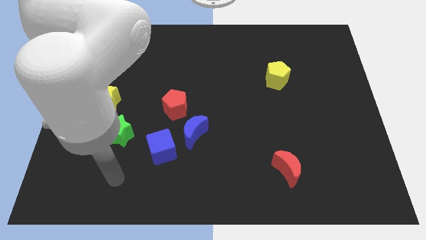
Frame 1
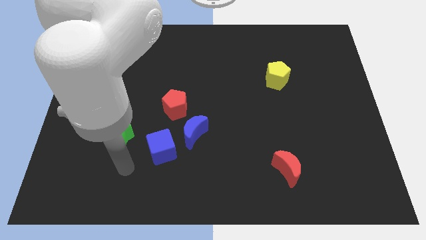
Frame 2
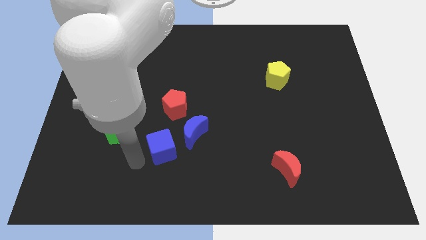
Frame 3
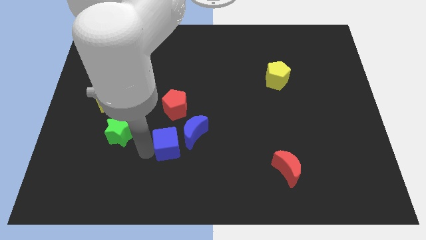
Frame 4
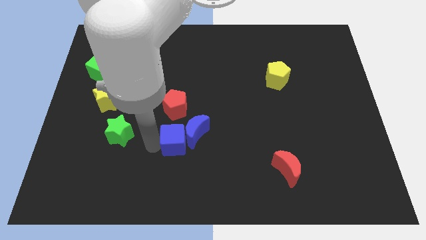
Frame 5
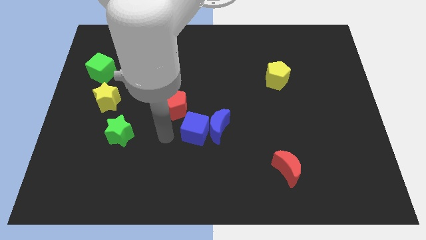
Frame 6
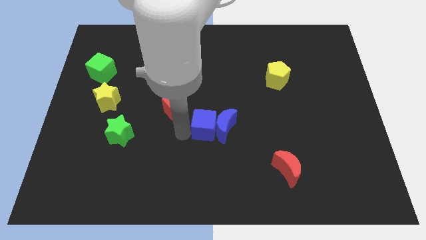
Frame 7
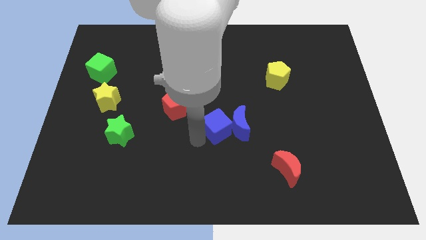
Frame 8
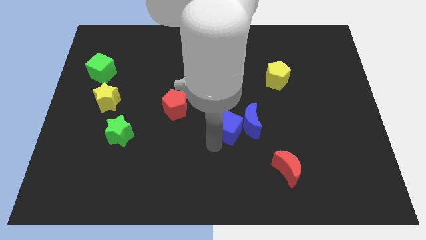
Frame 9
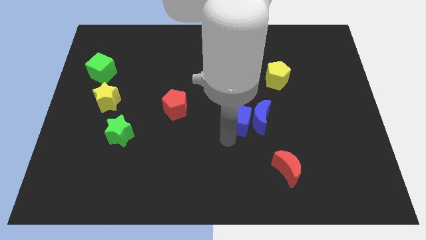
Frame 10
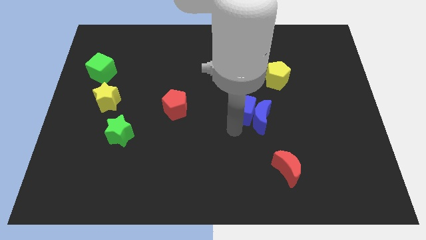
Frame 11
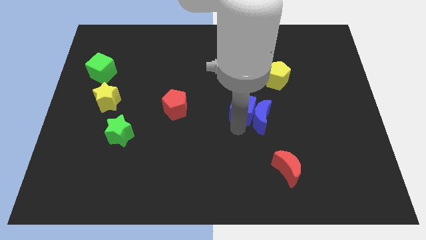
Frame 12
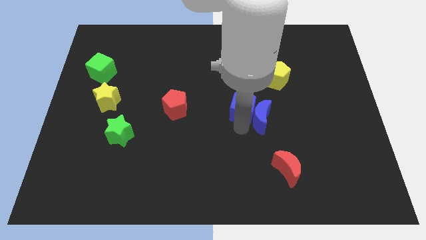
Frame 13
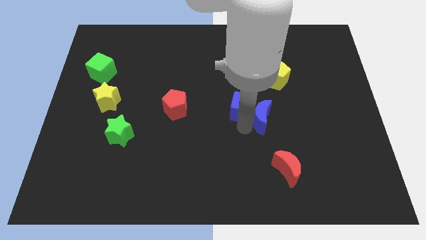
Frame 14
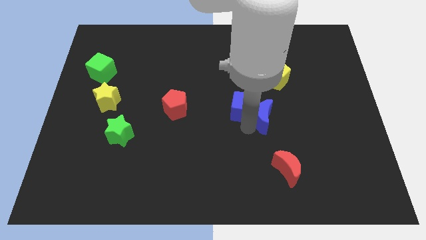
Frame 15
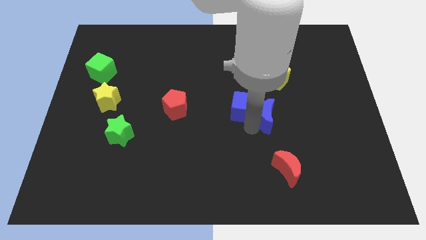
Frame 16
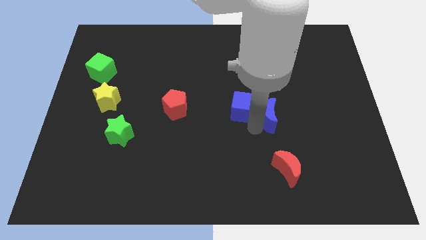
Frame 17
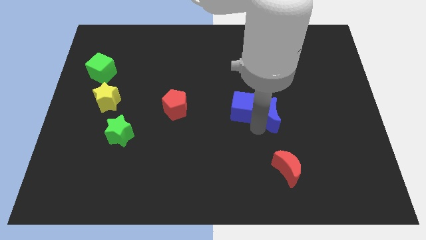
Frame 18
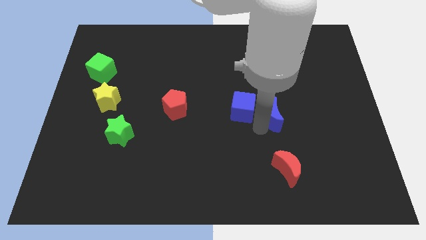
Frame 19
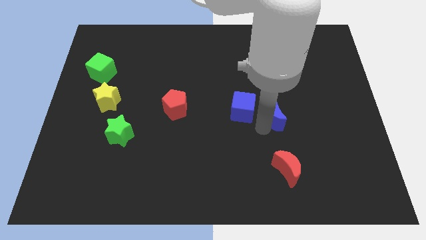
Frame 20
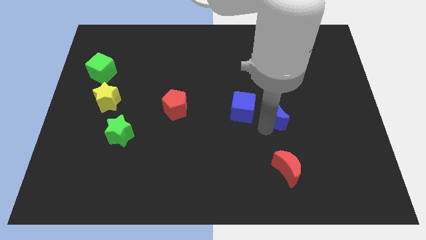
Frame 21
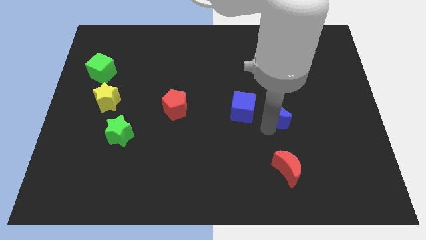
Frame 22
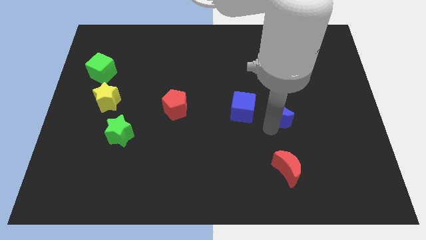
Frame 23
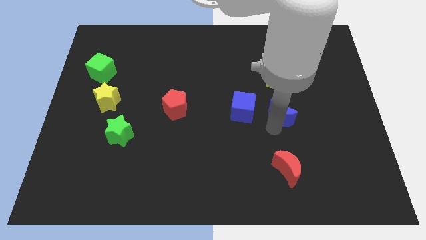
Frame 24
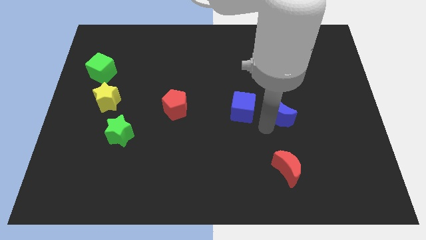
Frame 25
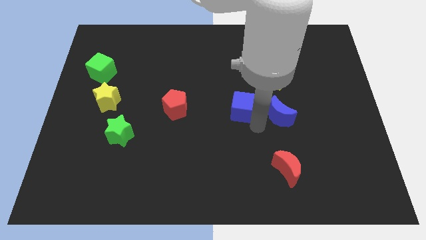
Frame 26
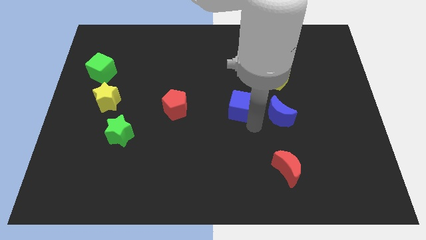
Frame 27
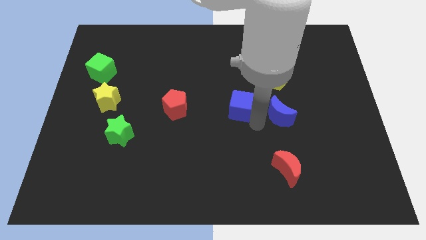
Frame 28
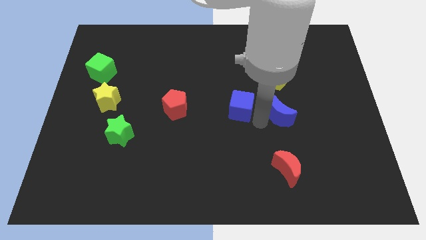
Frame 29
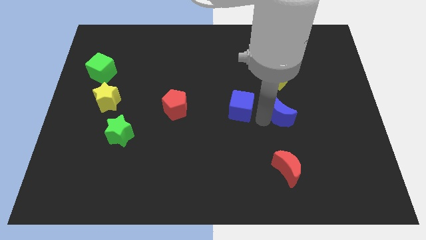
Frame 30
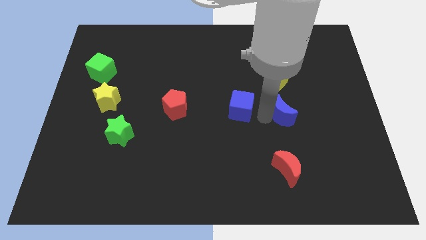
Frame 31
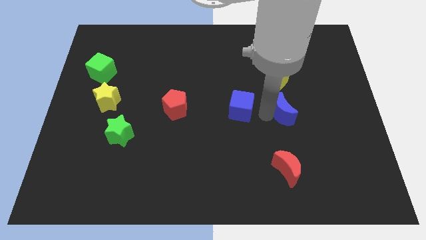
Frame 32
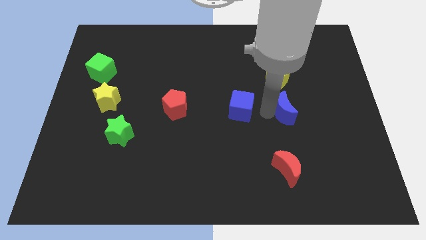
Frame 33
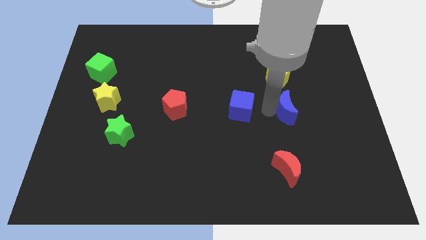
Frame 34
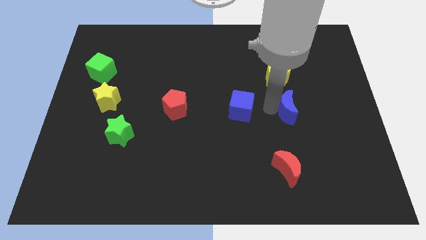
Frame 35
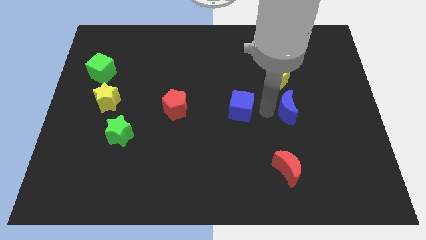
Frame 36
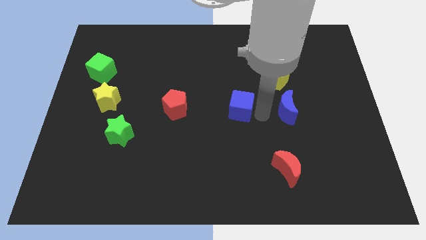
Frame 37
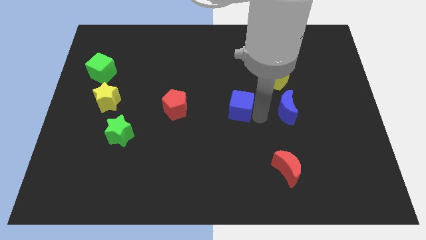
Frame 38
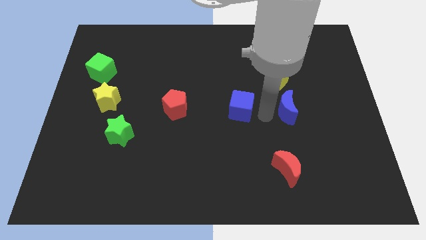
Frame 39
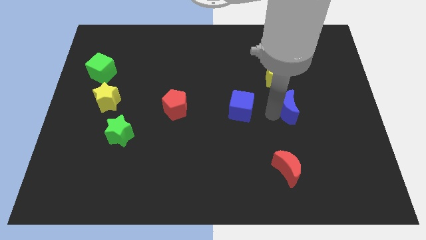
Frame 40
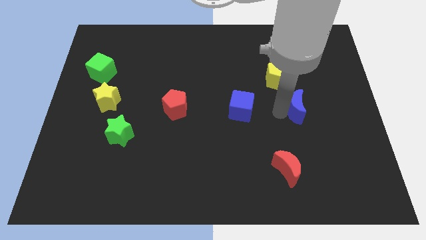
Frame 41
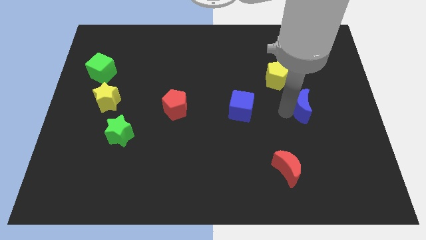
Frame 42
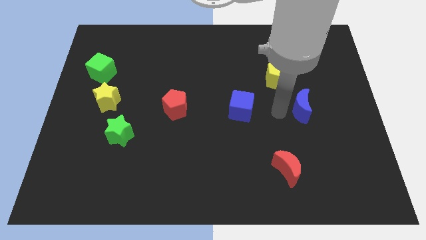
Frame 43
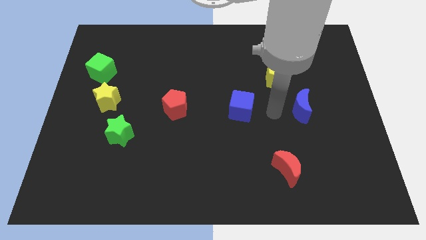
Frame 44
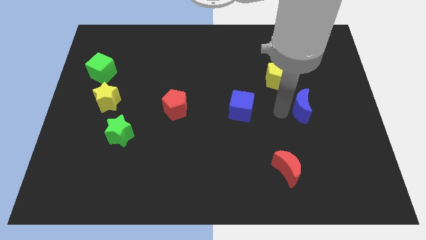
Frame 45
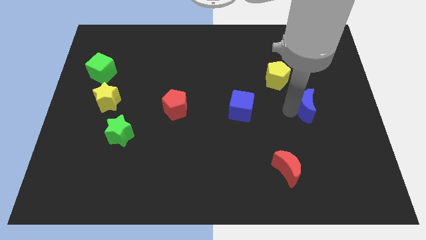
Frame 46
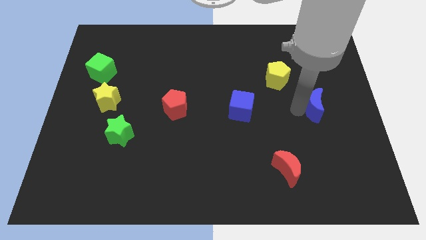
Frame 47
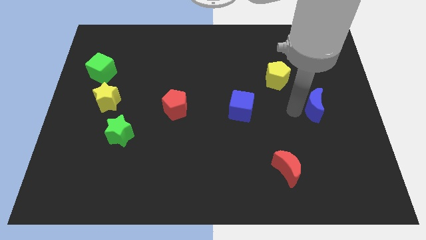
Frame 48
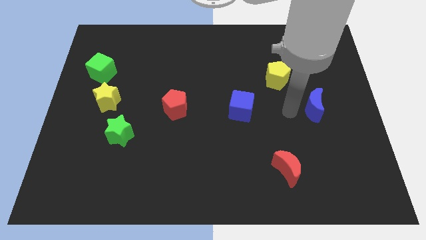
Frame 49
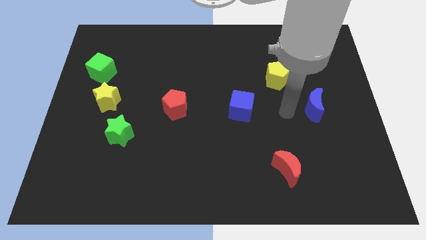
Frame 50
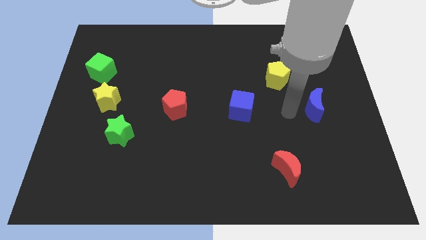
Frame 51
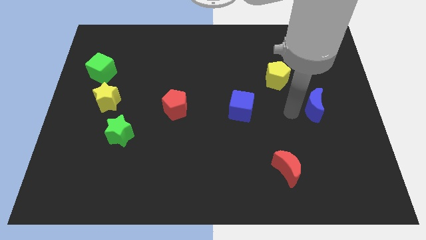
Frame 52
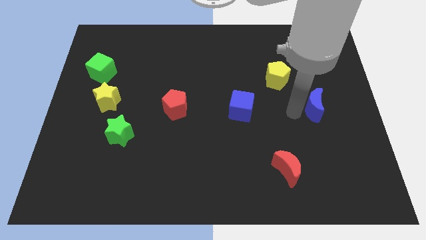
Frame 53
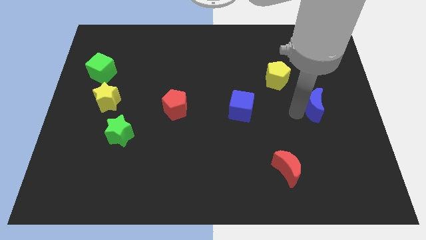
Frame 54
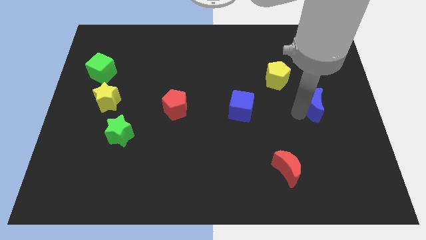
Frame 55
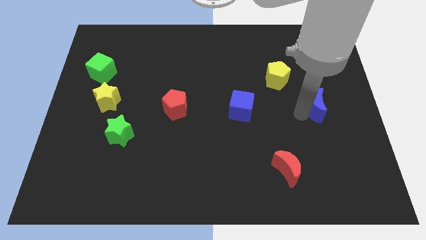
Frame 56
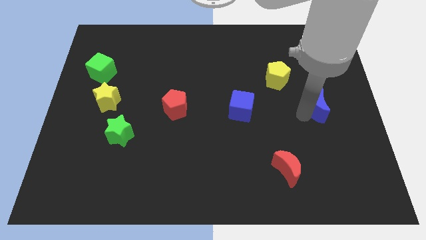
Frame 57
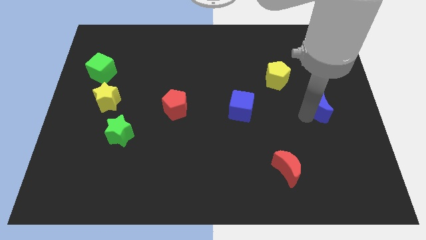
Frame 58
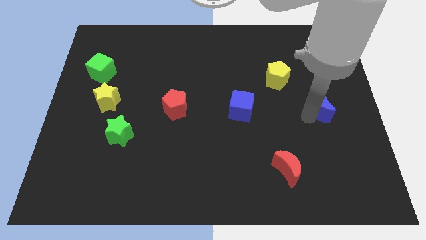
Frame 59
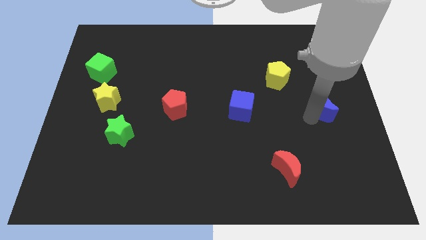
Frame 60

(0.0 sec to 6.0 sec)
slide the blue moon to the right side of the board

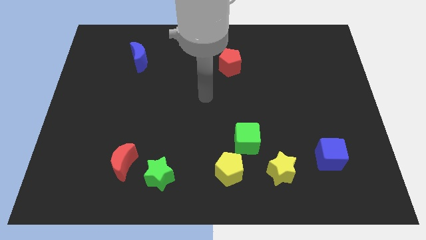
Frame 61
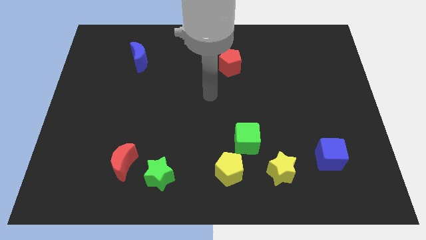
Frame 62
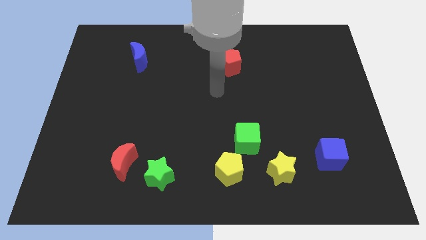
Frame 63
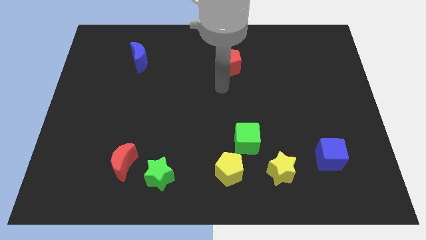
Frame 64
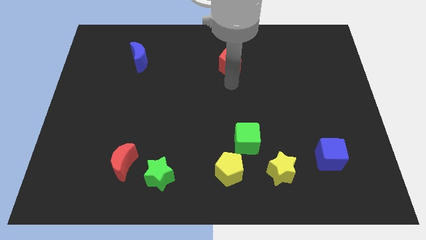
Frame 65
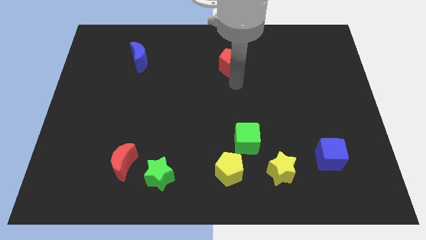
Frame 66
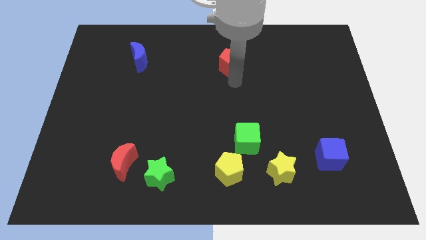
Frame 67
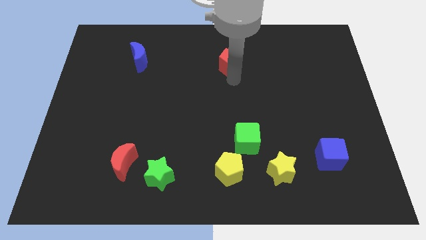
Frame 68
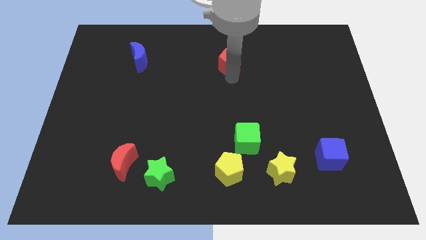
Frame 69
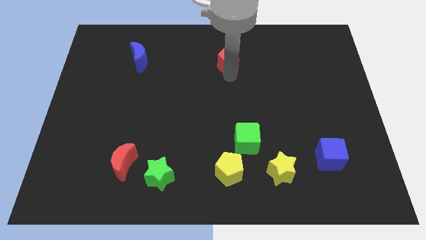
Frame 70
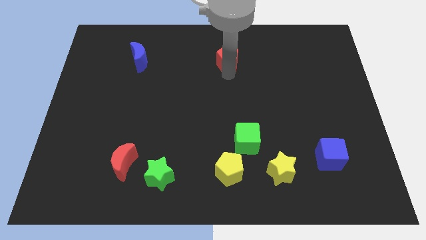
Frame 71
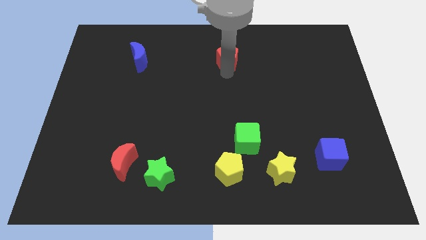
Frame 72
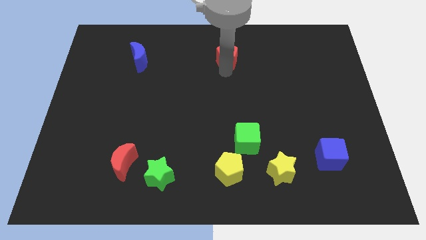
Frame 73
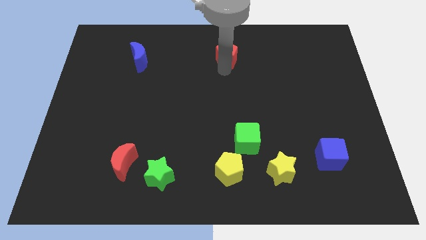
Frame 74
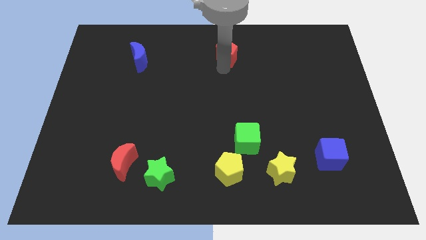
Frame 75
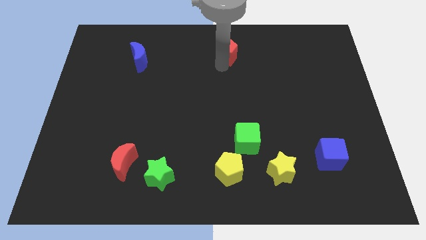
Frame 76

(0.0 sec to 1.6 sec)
slide the red pentagon to the top side
